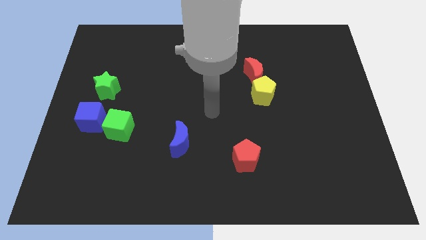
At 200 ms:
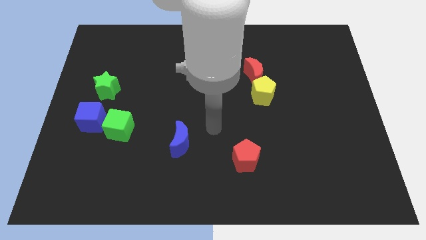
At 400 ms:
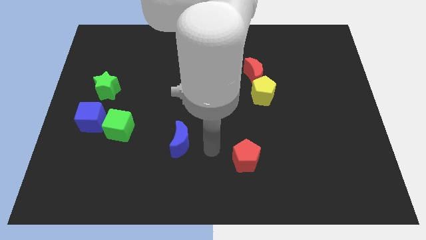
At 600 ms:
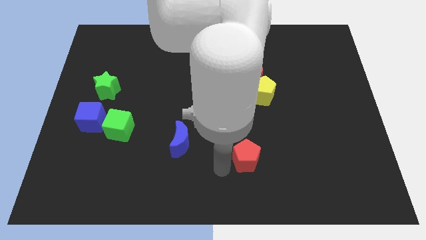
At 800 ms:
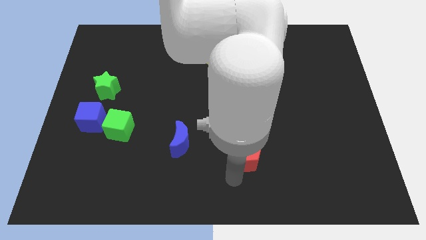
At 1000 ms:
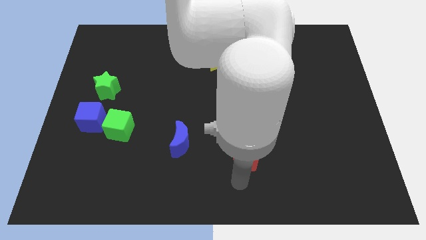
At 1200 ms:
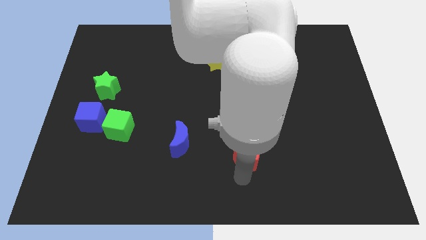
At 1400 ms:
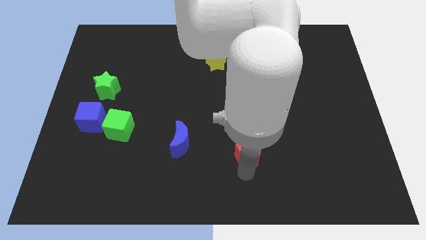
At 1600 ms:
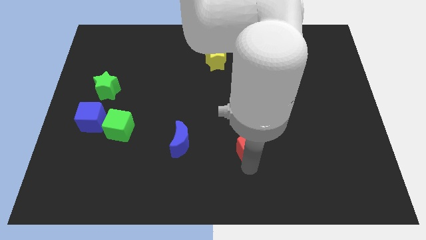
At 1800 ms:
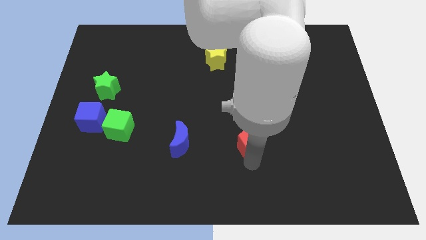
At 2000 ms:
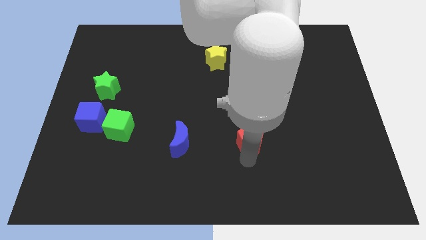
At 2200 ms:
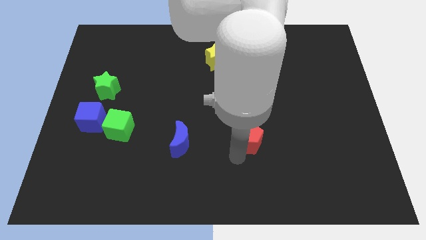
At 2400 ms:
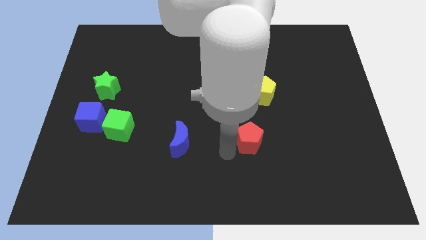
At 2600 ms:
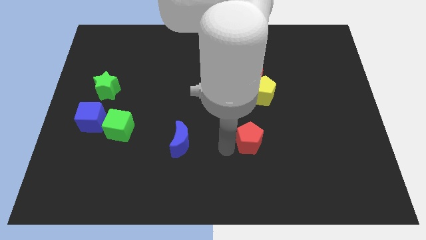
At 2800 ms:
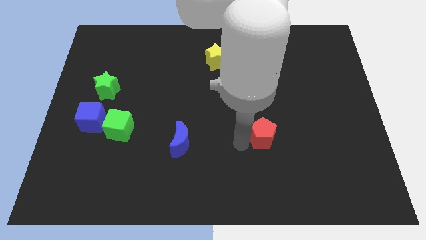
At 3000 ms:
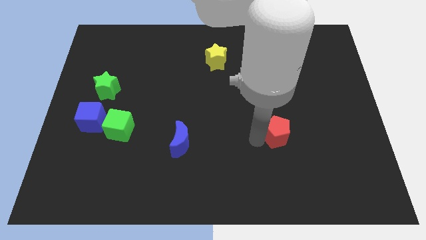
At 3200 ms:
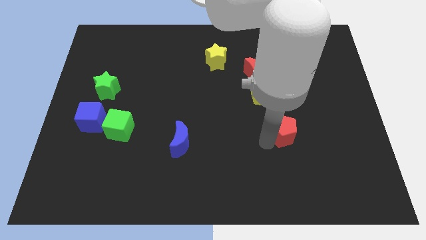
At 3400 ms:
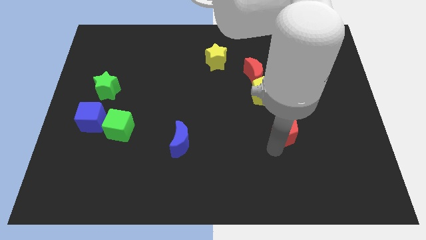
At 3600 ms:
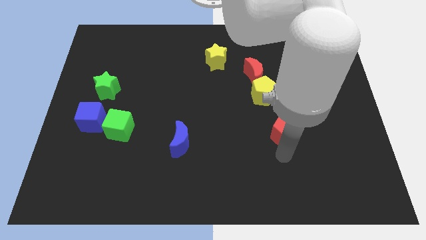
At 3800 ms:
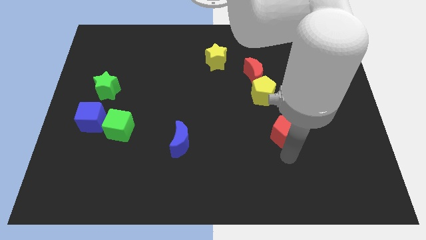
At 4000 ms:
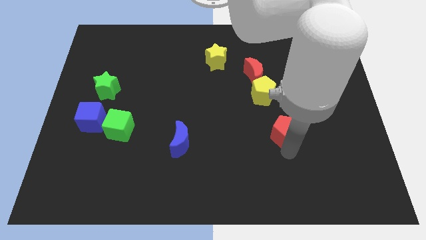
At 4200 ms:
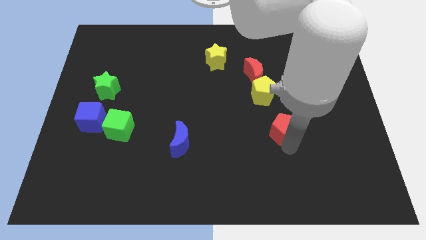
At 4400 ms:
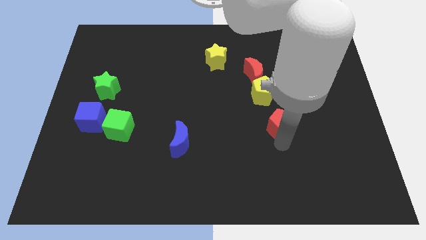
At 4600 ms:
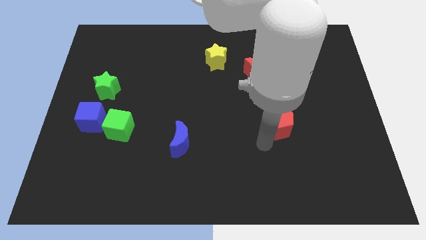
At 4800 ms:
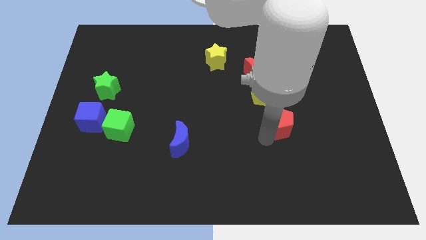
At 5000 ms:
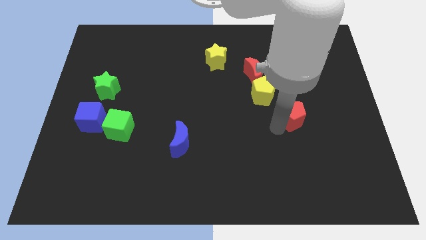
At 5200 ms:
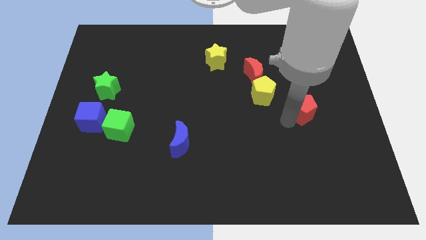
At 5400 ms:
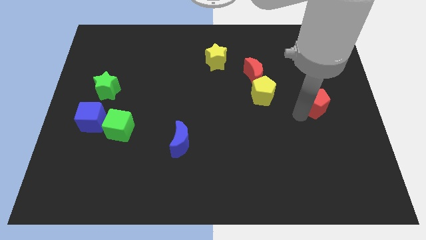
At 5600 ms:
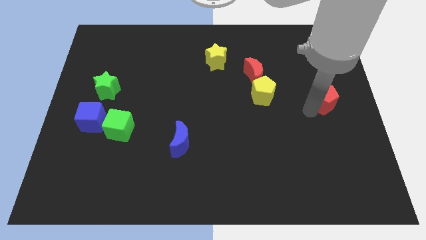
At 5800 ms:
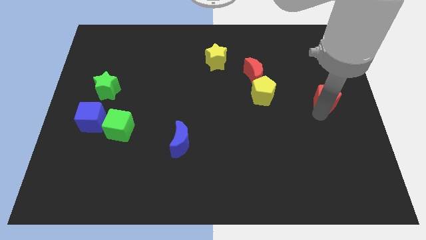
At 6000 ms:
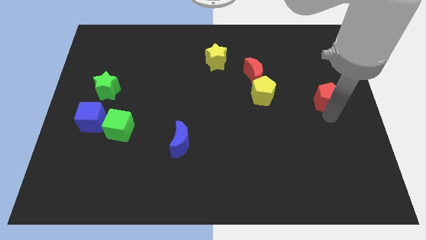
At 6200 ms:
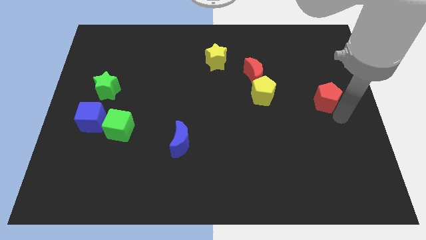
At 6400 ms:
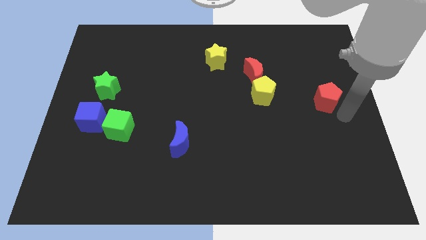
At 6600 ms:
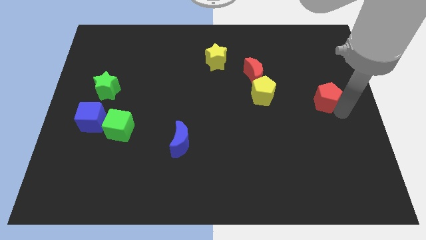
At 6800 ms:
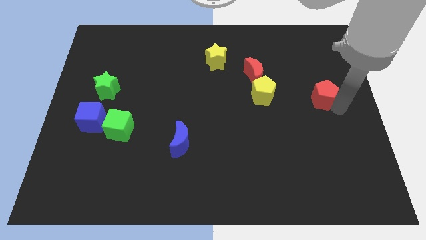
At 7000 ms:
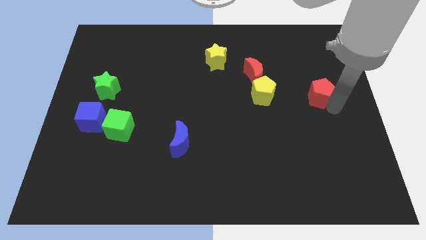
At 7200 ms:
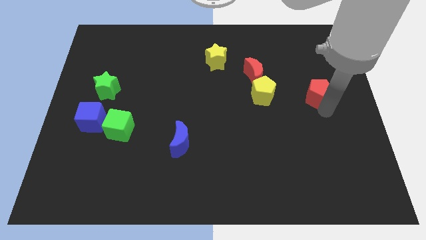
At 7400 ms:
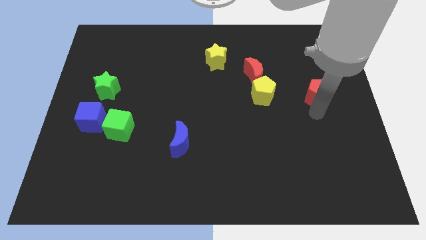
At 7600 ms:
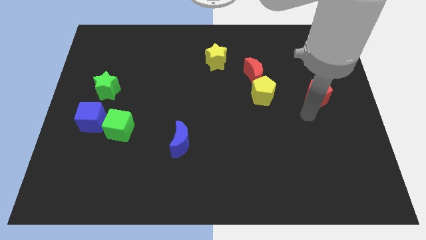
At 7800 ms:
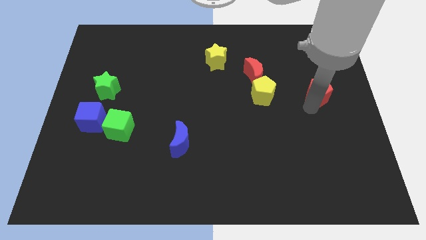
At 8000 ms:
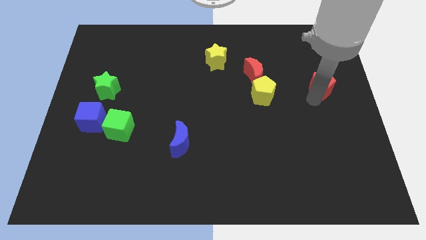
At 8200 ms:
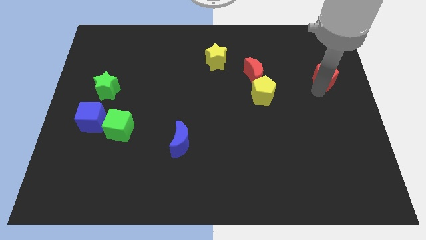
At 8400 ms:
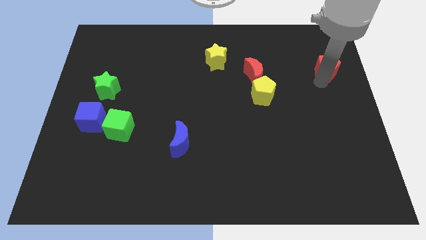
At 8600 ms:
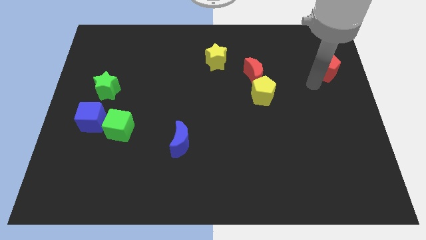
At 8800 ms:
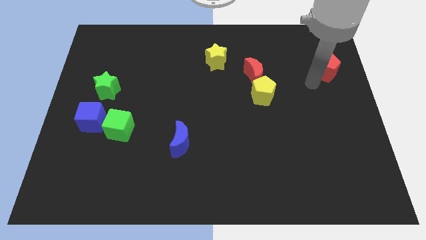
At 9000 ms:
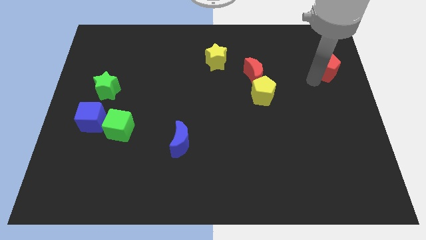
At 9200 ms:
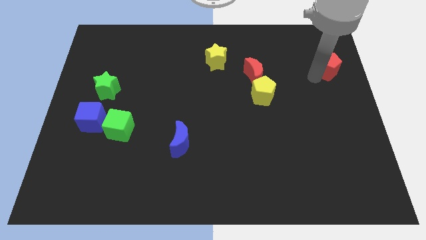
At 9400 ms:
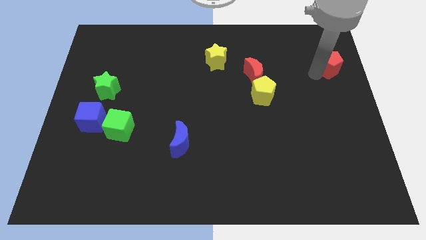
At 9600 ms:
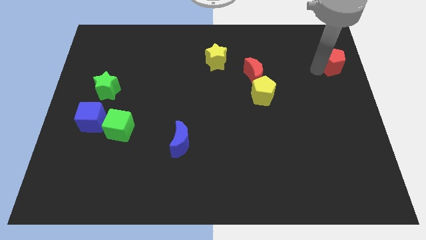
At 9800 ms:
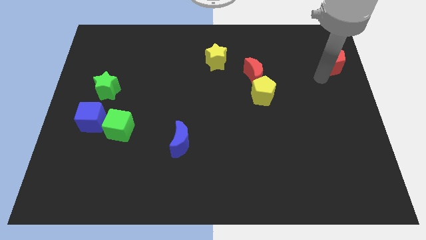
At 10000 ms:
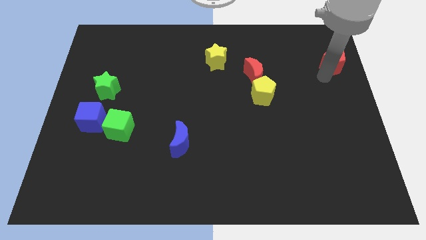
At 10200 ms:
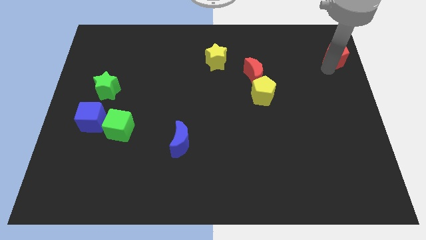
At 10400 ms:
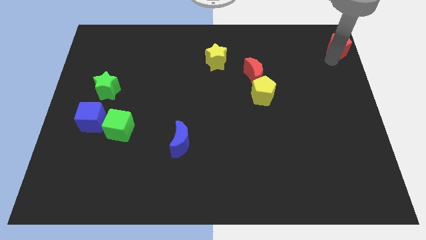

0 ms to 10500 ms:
push the red pentagon to the upper right corner

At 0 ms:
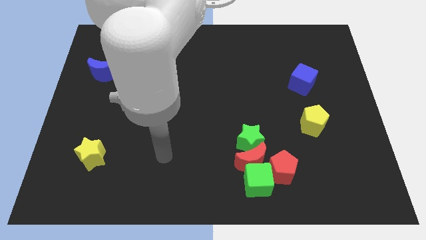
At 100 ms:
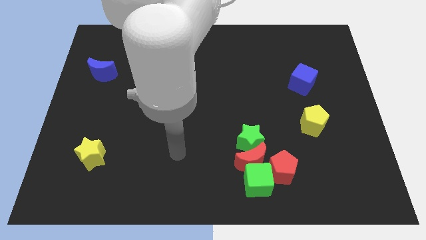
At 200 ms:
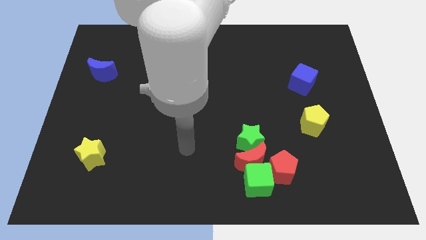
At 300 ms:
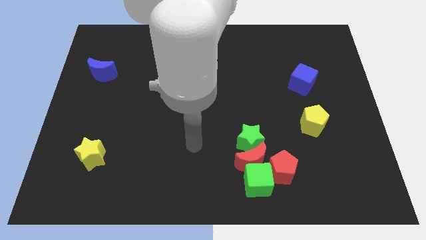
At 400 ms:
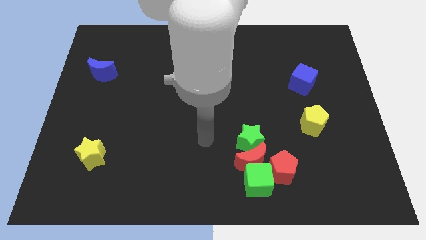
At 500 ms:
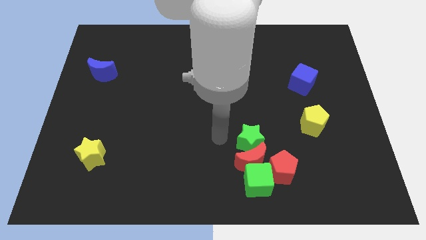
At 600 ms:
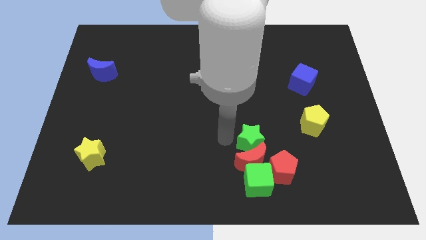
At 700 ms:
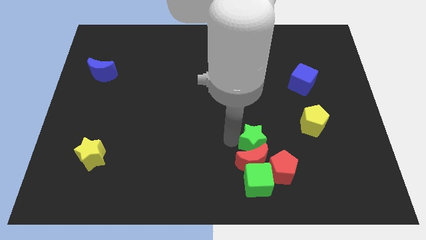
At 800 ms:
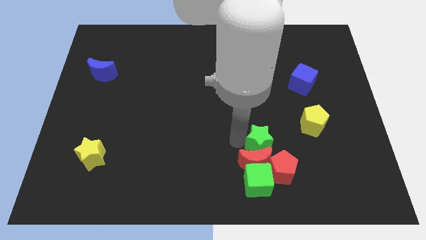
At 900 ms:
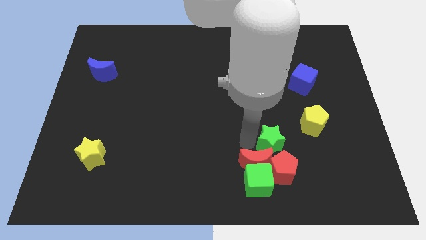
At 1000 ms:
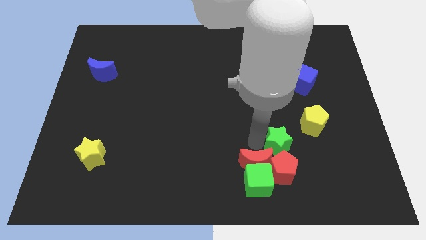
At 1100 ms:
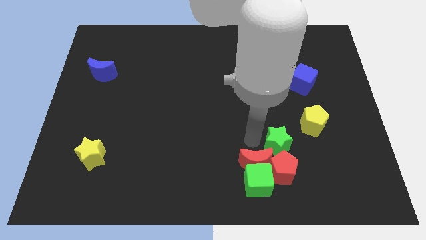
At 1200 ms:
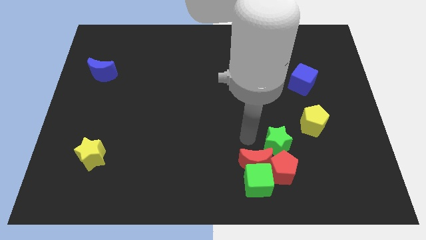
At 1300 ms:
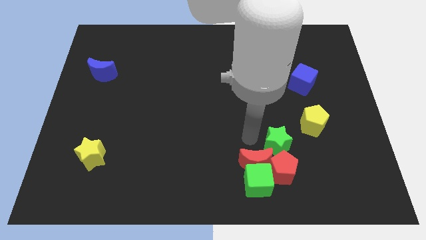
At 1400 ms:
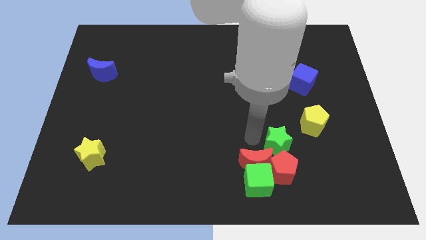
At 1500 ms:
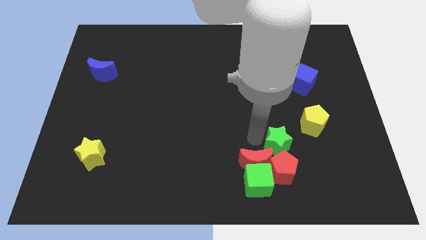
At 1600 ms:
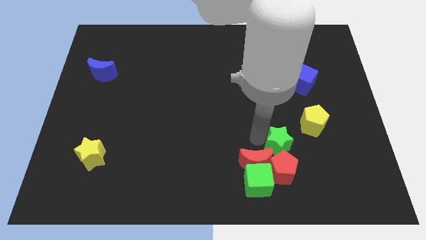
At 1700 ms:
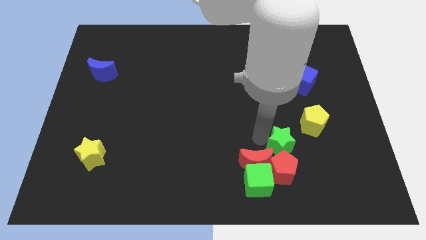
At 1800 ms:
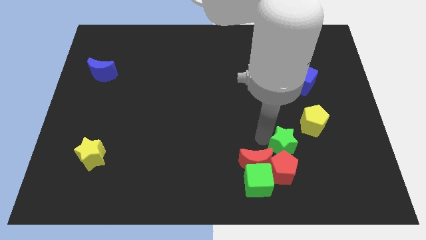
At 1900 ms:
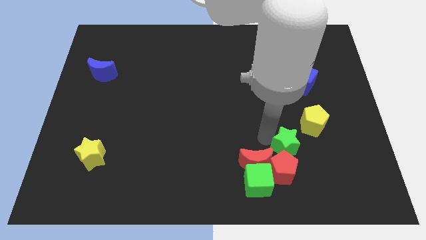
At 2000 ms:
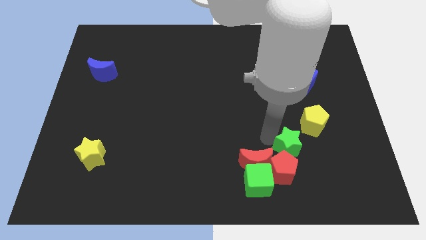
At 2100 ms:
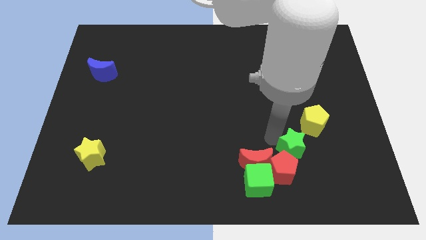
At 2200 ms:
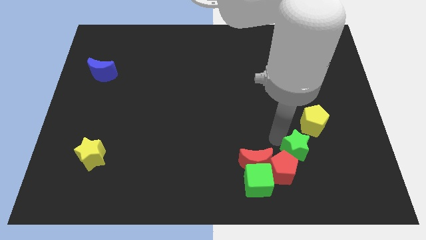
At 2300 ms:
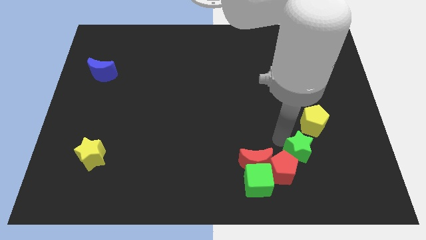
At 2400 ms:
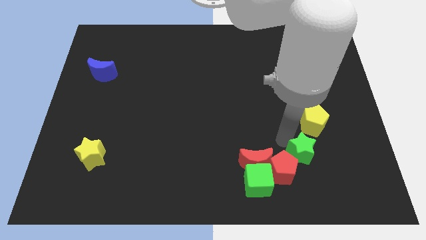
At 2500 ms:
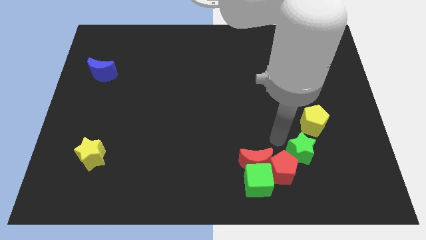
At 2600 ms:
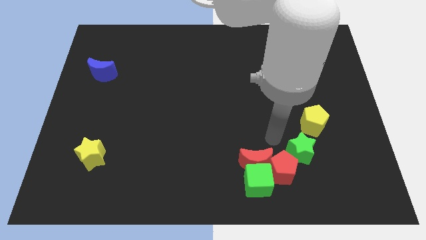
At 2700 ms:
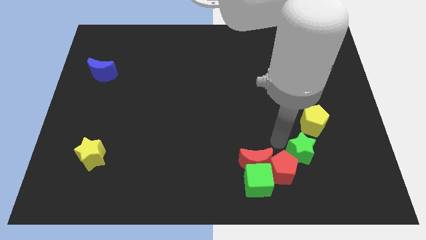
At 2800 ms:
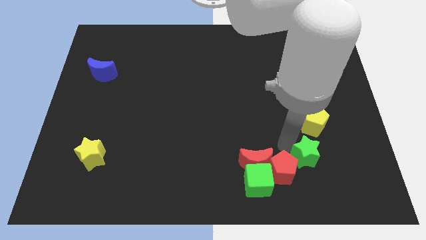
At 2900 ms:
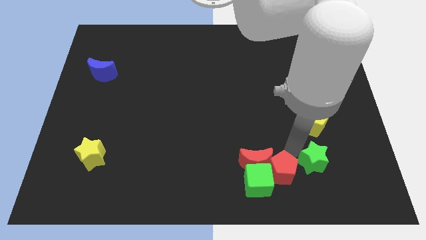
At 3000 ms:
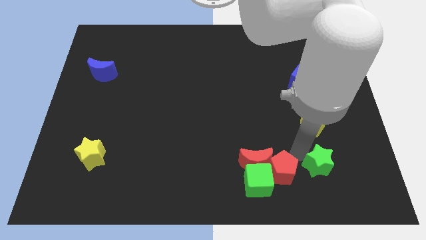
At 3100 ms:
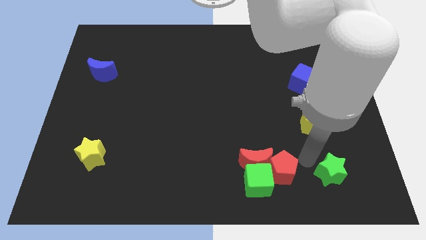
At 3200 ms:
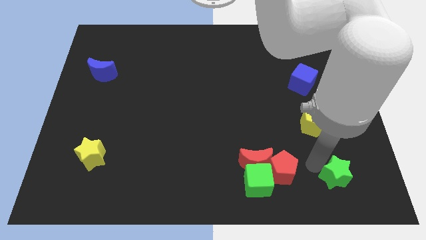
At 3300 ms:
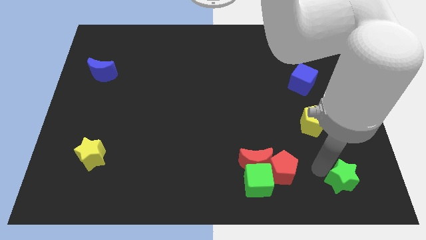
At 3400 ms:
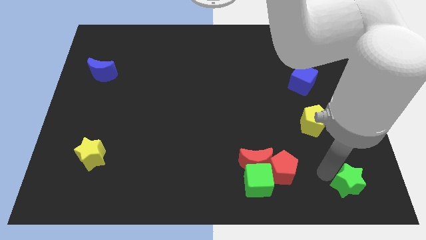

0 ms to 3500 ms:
push the green star to the bottom right of the board
